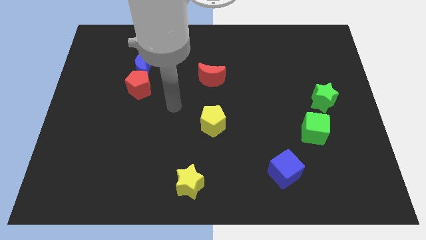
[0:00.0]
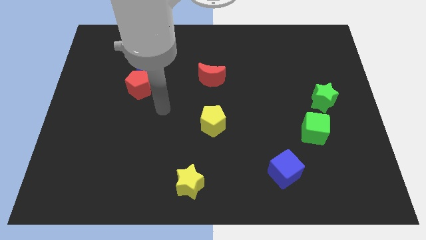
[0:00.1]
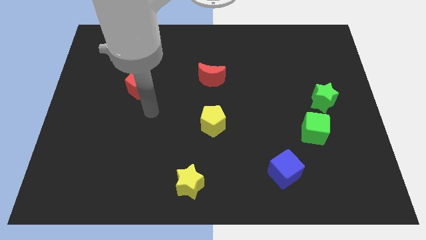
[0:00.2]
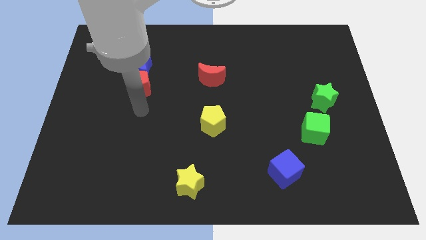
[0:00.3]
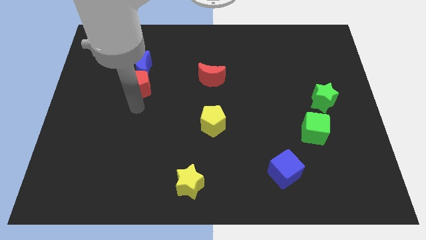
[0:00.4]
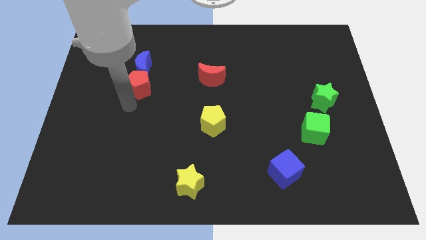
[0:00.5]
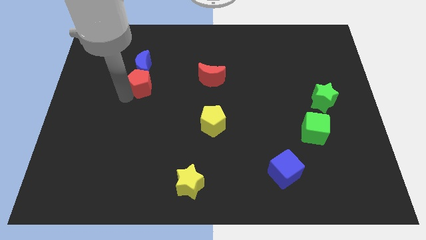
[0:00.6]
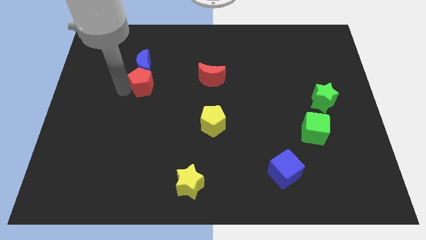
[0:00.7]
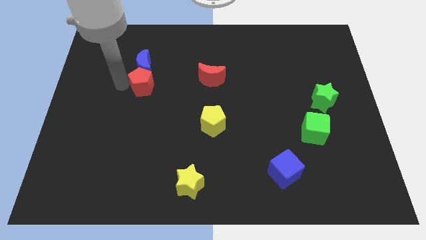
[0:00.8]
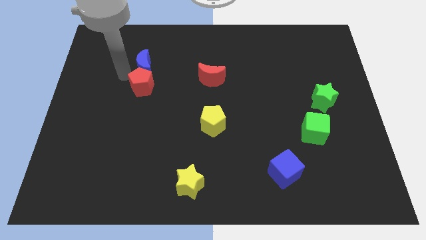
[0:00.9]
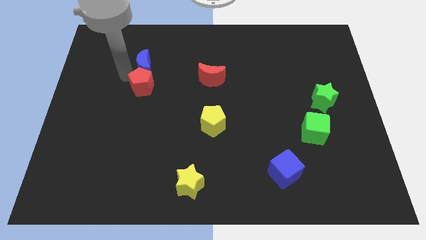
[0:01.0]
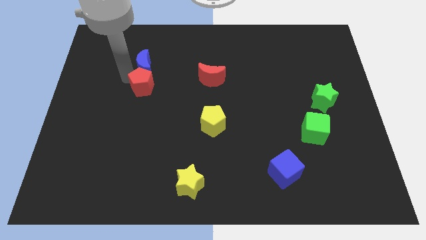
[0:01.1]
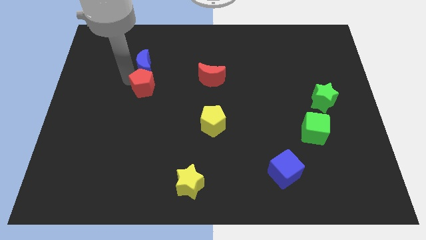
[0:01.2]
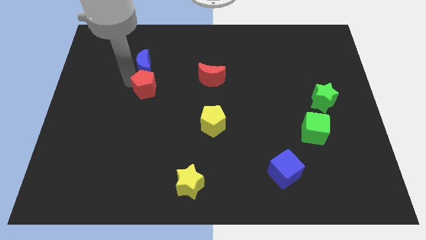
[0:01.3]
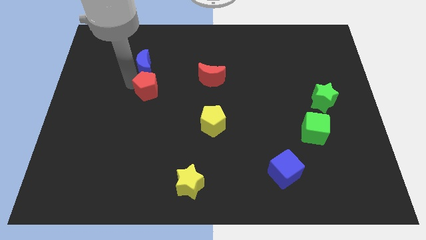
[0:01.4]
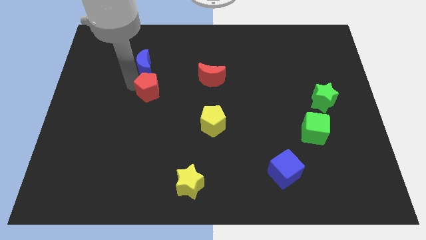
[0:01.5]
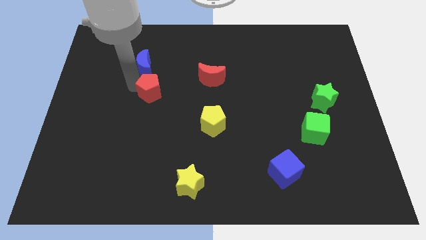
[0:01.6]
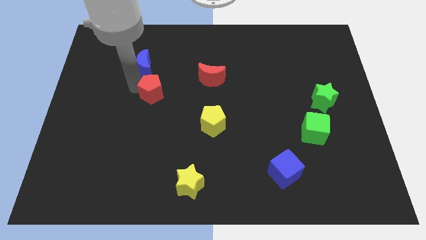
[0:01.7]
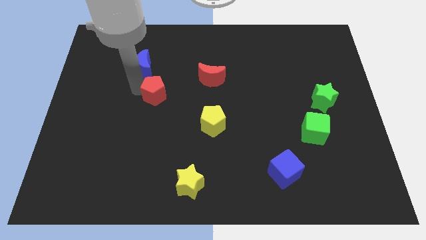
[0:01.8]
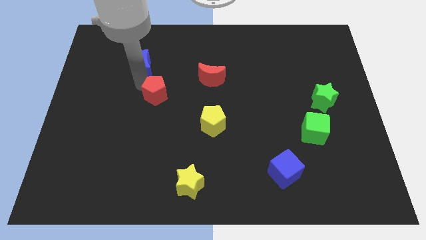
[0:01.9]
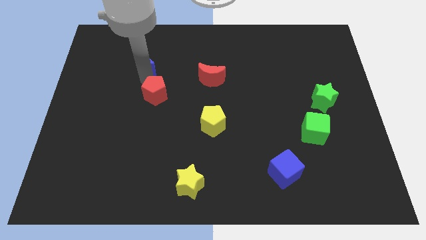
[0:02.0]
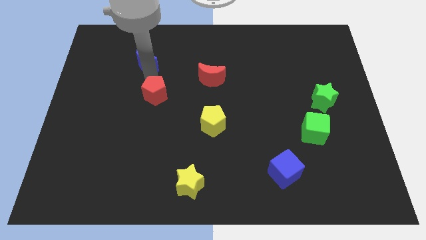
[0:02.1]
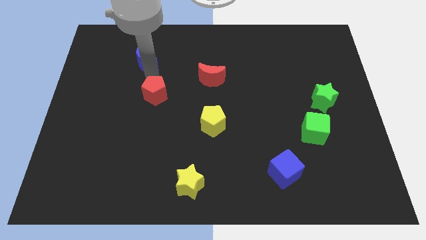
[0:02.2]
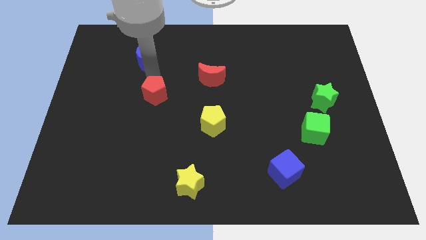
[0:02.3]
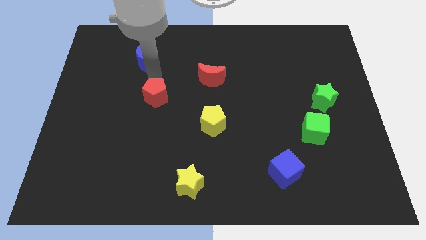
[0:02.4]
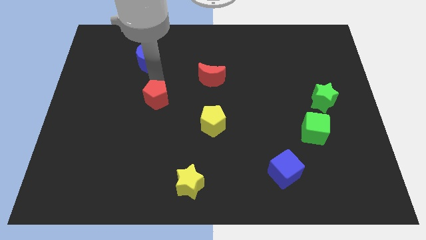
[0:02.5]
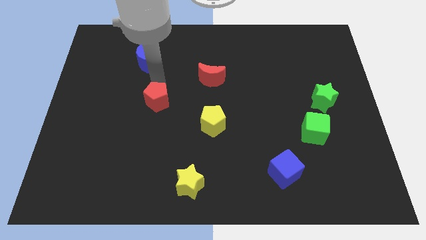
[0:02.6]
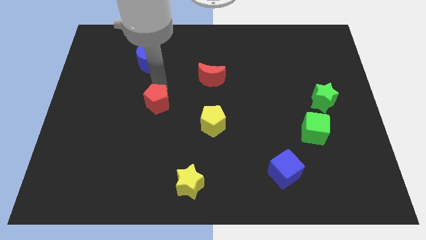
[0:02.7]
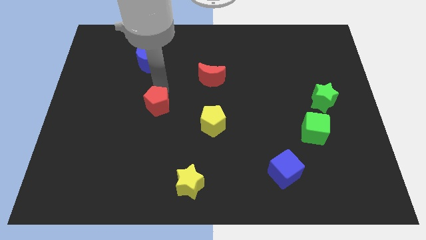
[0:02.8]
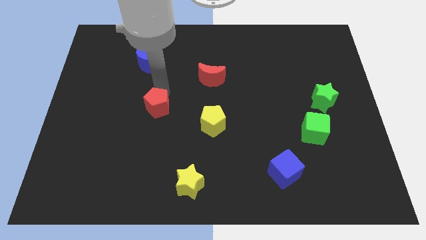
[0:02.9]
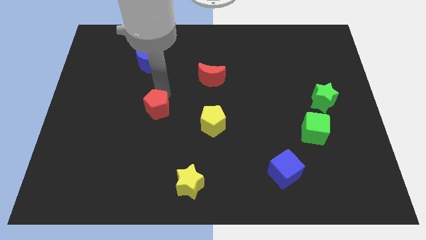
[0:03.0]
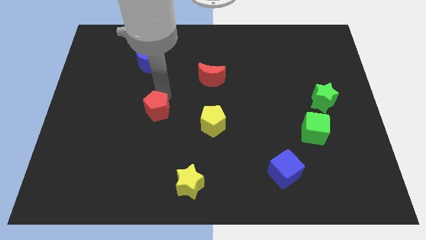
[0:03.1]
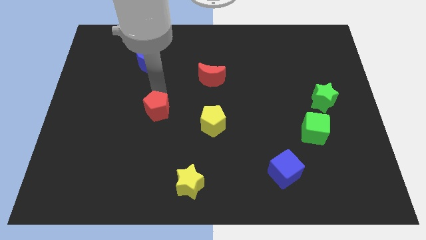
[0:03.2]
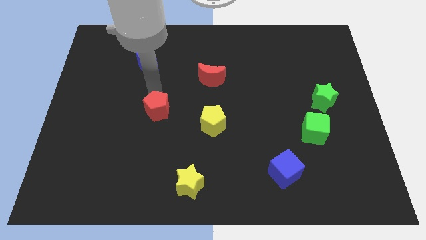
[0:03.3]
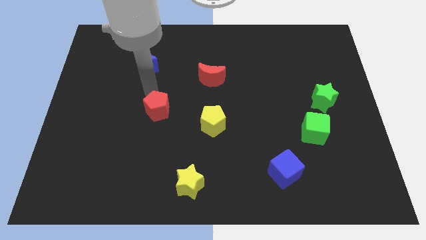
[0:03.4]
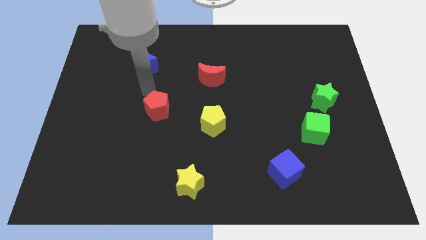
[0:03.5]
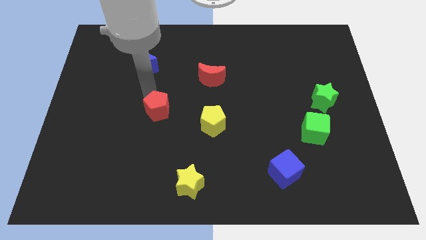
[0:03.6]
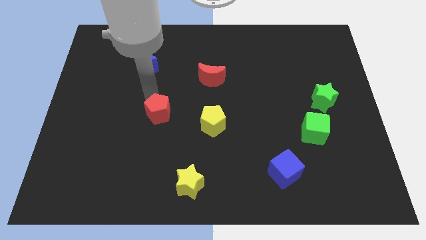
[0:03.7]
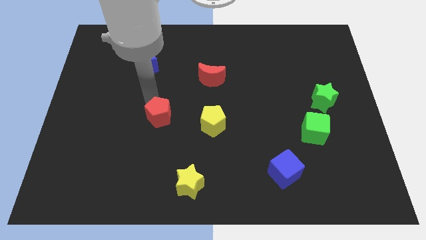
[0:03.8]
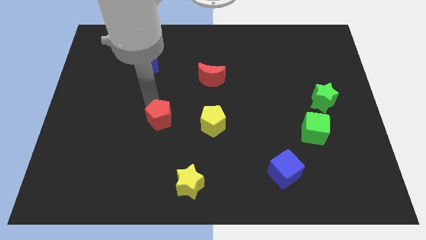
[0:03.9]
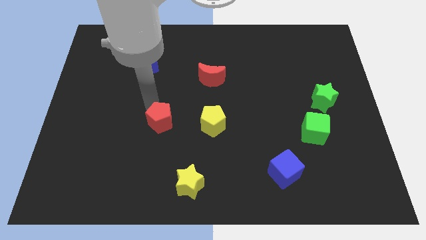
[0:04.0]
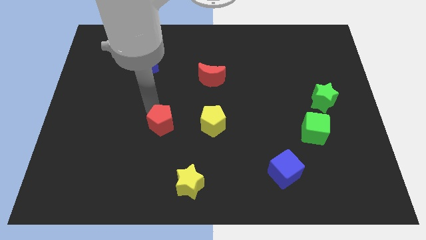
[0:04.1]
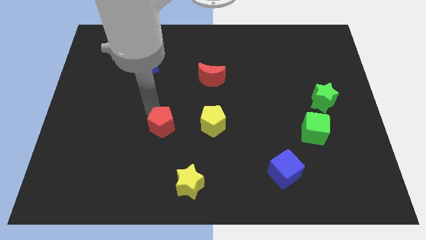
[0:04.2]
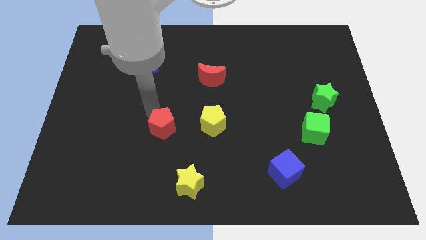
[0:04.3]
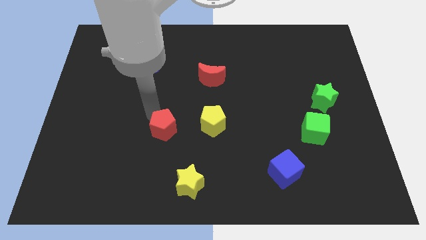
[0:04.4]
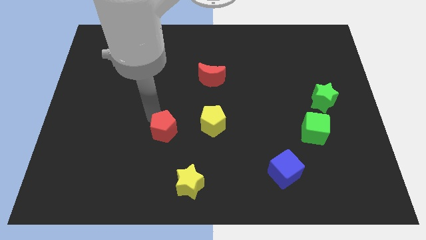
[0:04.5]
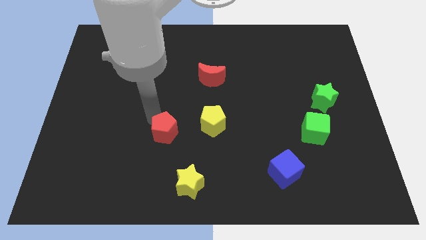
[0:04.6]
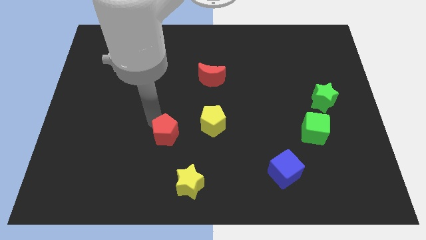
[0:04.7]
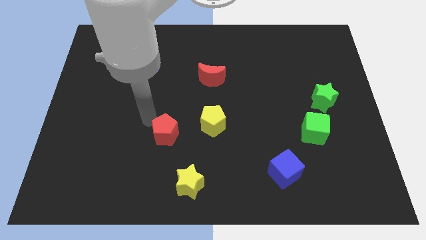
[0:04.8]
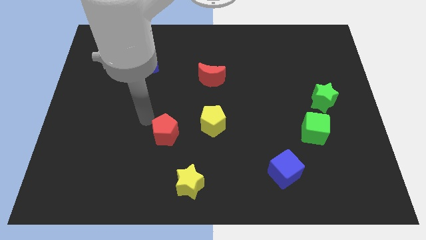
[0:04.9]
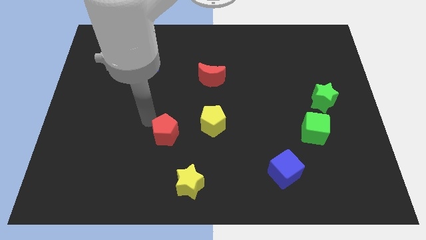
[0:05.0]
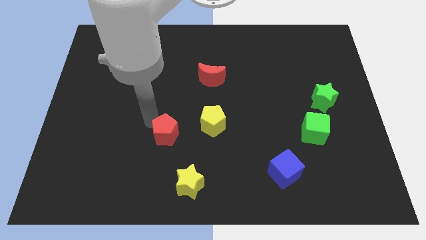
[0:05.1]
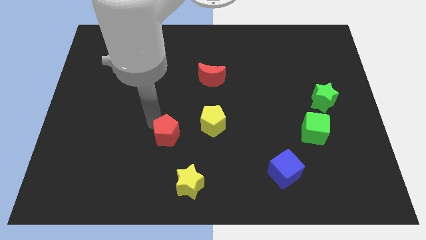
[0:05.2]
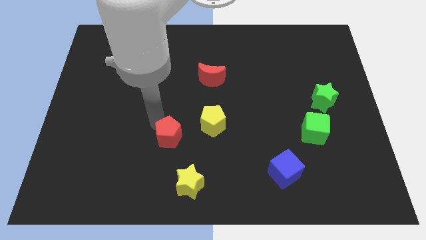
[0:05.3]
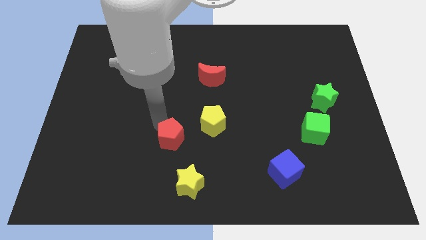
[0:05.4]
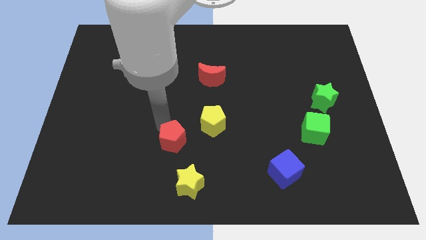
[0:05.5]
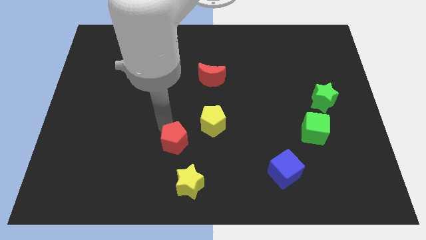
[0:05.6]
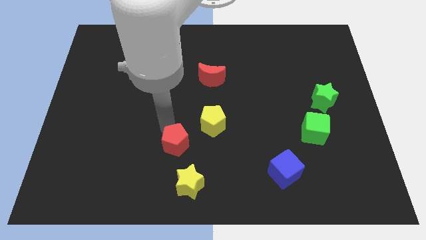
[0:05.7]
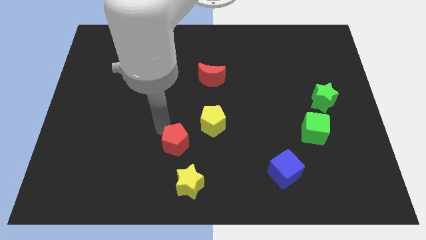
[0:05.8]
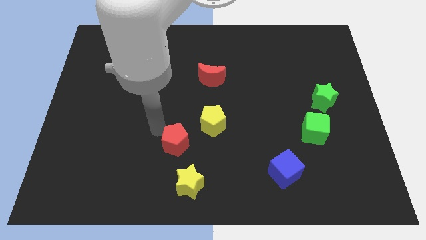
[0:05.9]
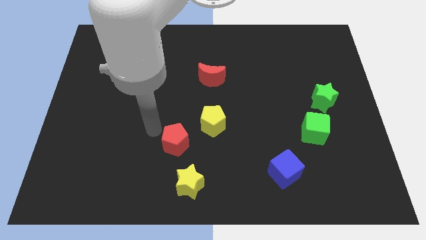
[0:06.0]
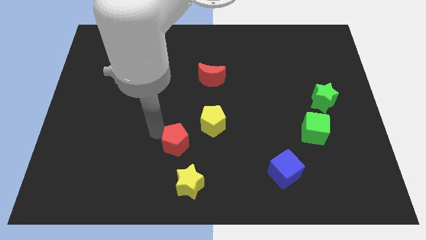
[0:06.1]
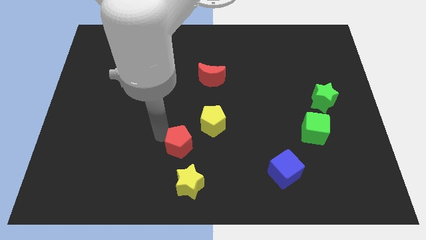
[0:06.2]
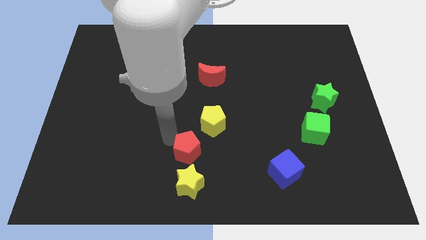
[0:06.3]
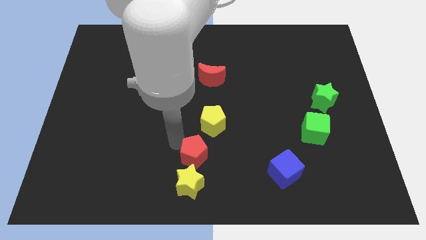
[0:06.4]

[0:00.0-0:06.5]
push the red pentagon to the bottom
